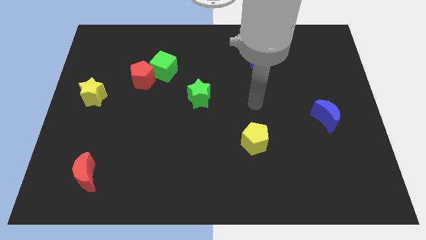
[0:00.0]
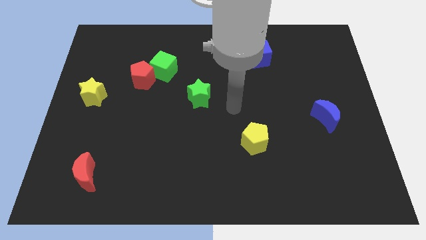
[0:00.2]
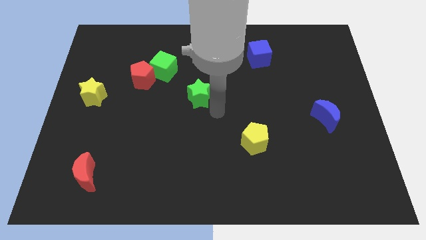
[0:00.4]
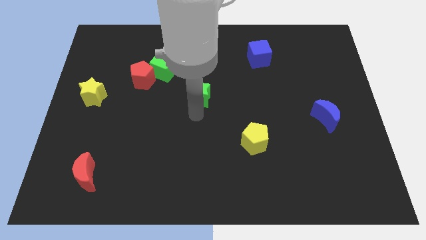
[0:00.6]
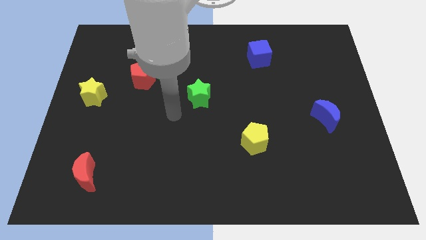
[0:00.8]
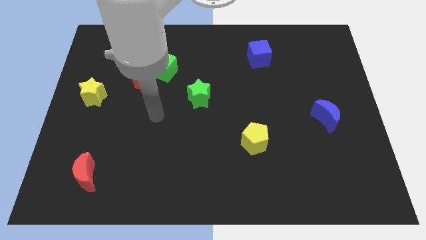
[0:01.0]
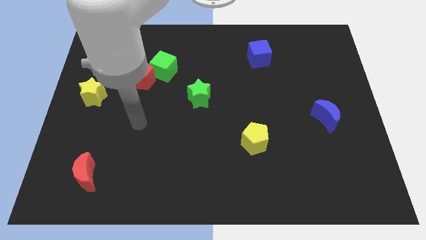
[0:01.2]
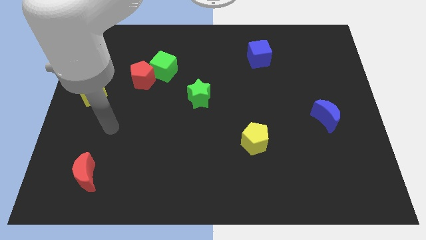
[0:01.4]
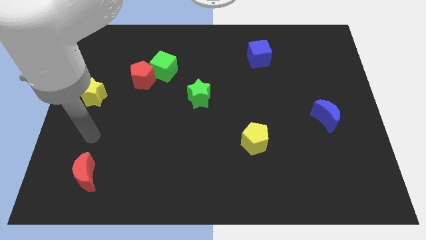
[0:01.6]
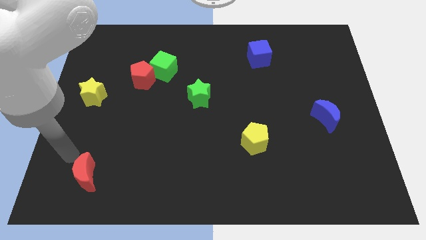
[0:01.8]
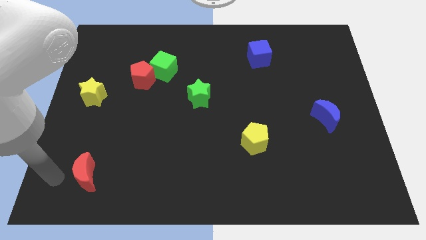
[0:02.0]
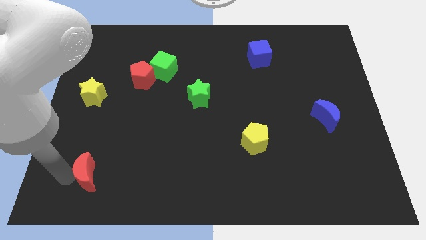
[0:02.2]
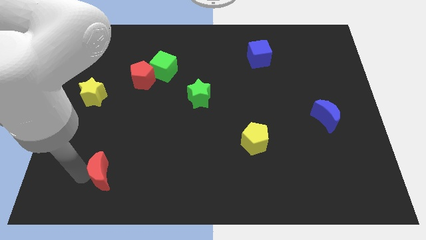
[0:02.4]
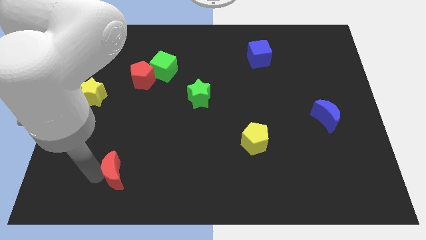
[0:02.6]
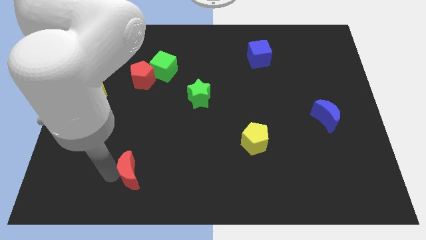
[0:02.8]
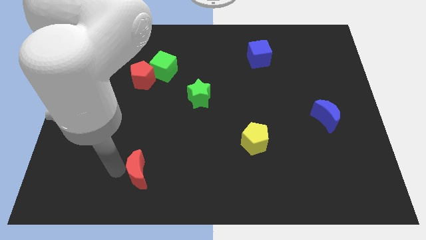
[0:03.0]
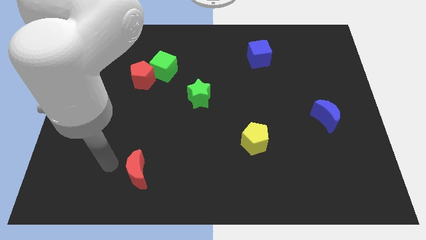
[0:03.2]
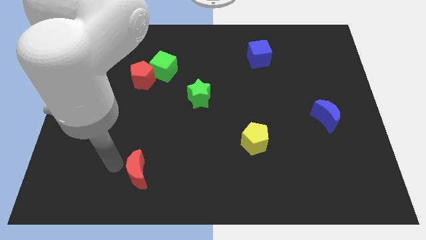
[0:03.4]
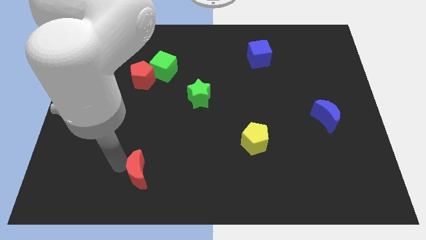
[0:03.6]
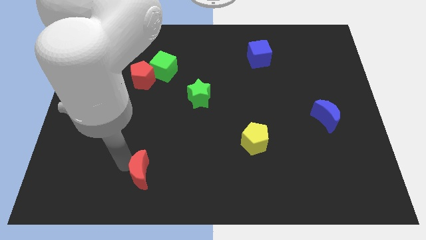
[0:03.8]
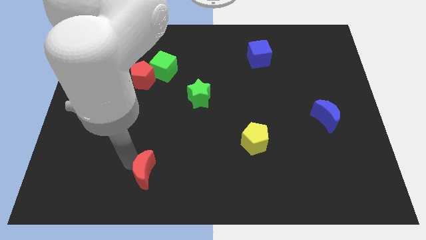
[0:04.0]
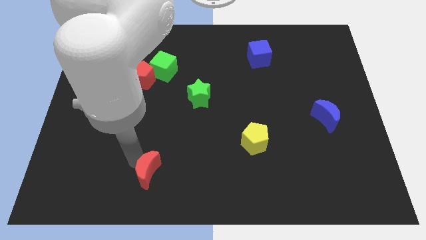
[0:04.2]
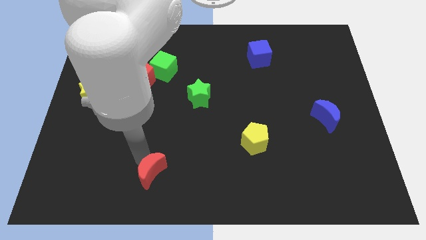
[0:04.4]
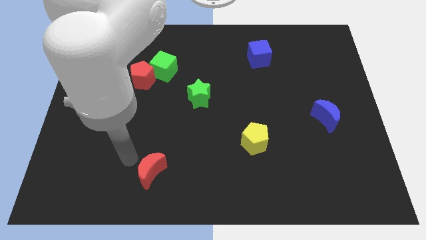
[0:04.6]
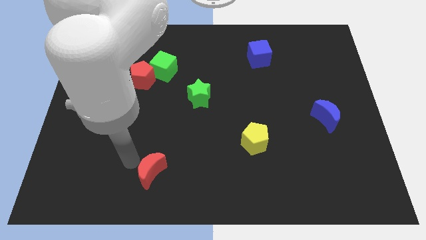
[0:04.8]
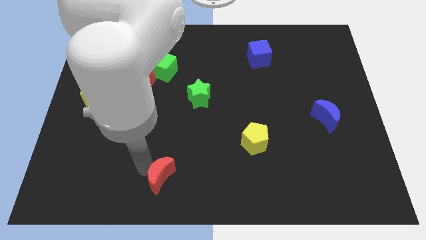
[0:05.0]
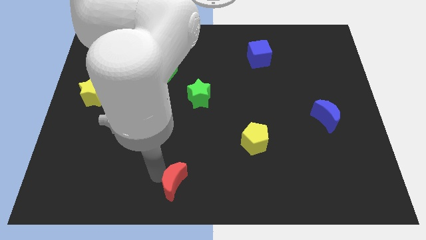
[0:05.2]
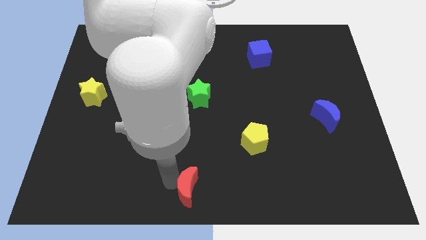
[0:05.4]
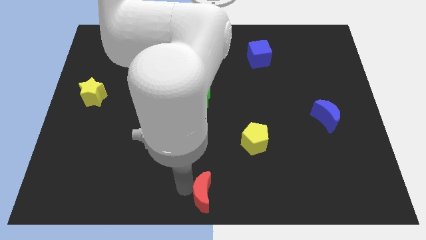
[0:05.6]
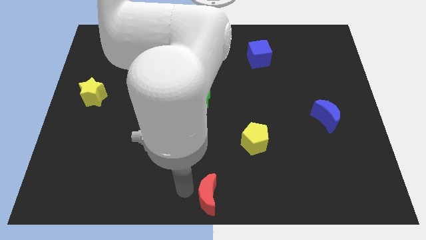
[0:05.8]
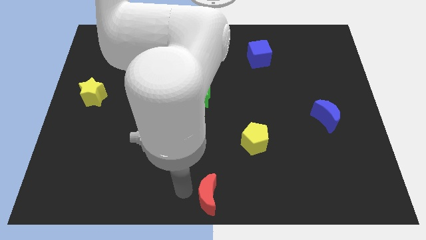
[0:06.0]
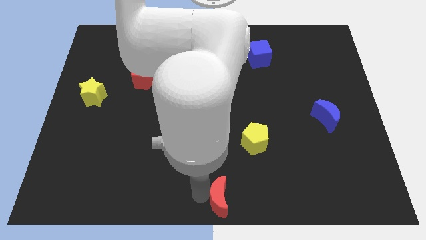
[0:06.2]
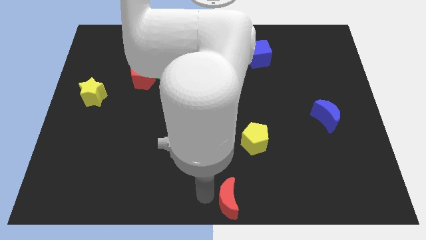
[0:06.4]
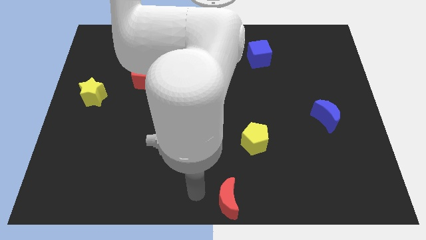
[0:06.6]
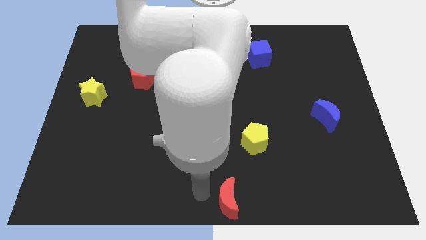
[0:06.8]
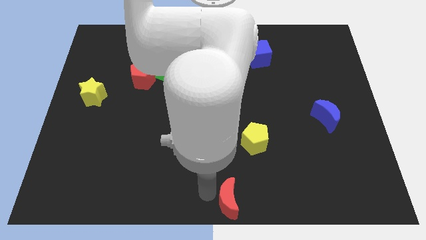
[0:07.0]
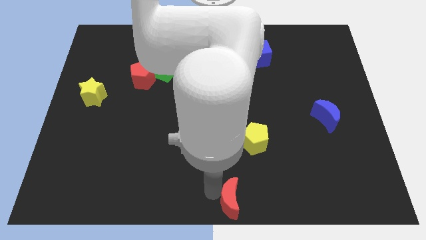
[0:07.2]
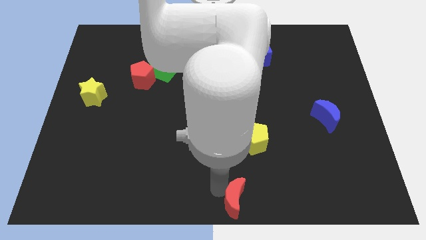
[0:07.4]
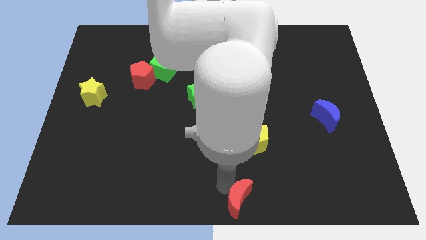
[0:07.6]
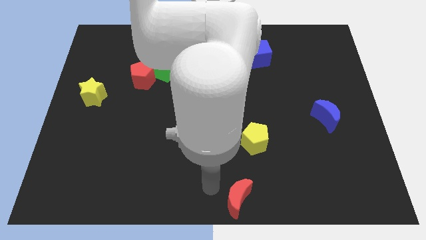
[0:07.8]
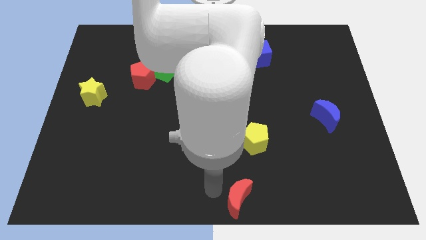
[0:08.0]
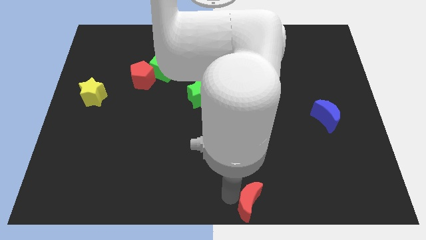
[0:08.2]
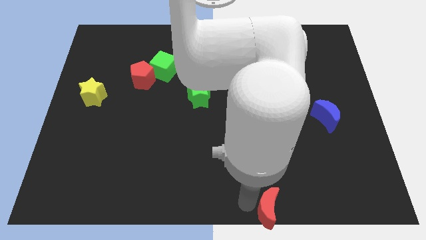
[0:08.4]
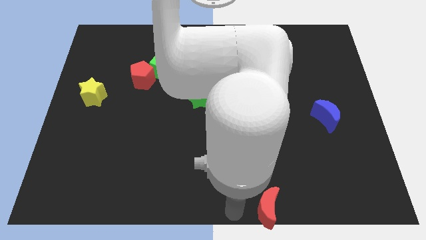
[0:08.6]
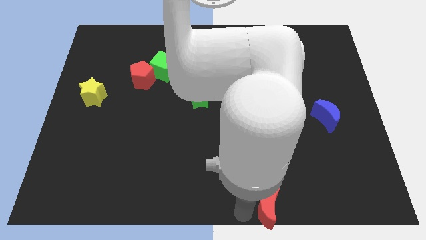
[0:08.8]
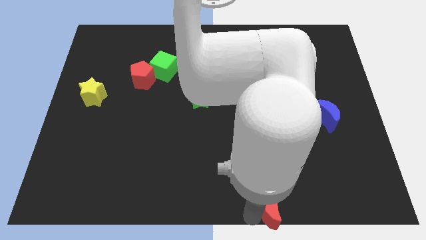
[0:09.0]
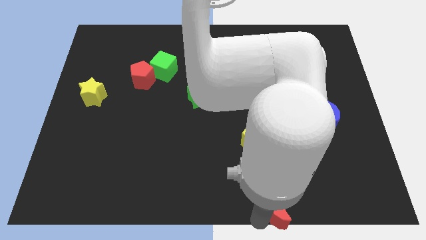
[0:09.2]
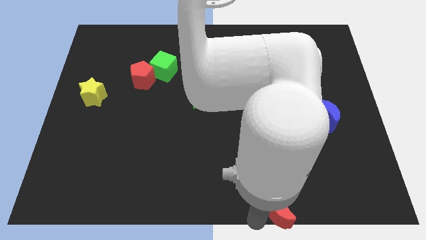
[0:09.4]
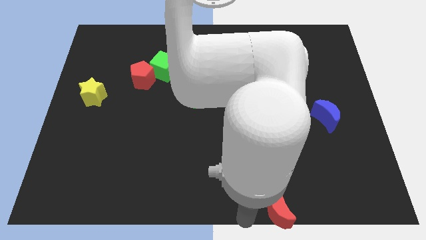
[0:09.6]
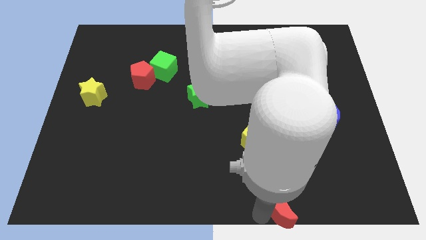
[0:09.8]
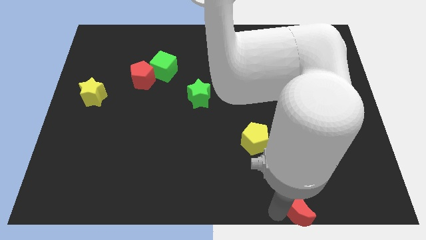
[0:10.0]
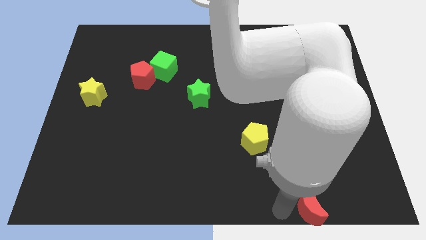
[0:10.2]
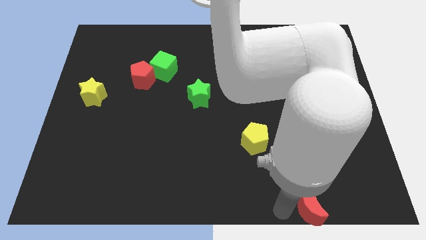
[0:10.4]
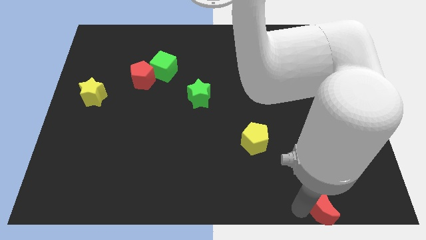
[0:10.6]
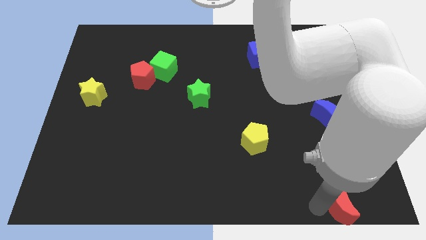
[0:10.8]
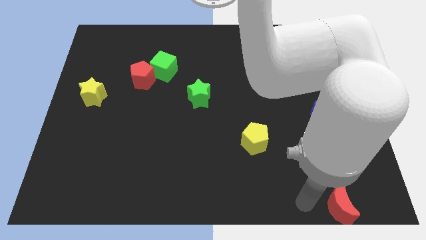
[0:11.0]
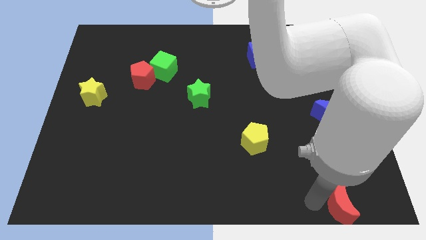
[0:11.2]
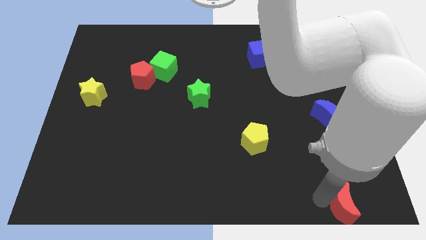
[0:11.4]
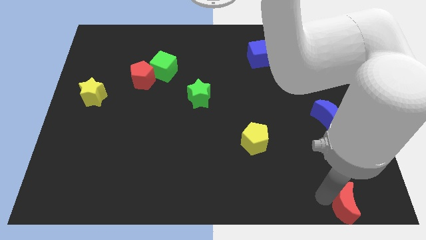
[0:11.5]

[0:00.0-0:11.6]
move the red moon to the bottom right corner

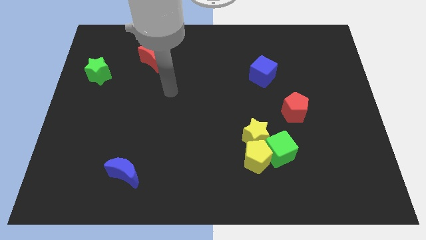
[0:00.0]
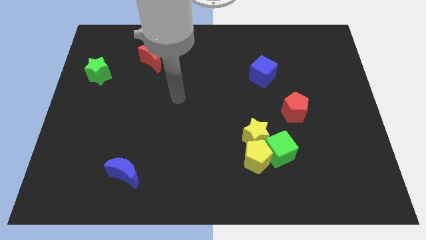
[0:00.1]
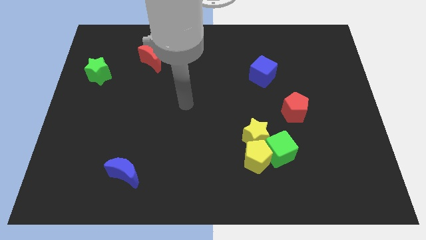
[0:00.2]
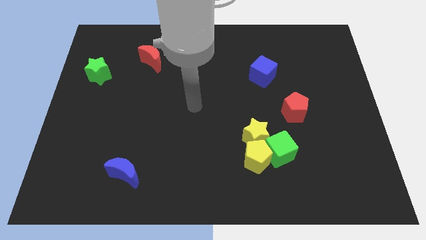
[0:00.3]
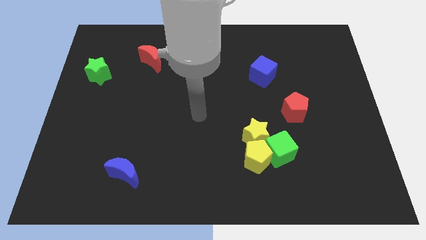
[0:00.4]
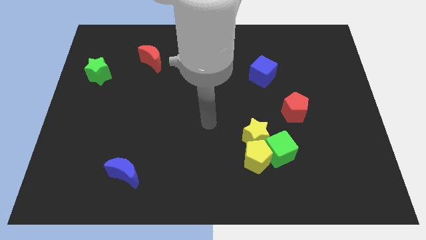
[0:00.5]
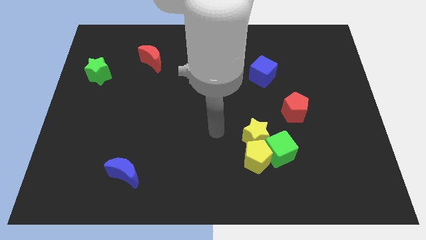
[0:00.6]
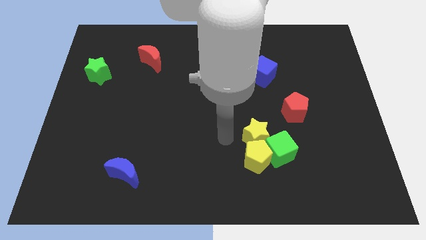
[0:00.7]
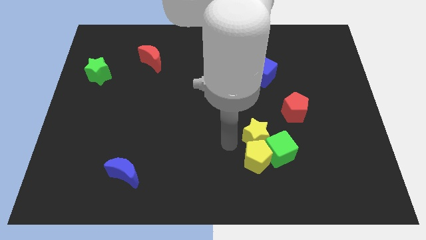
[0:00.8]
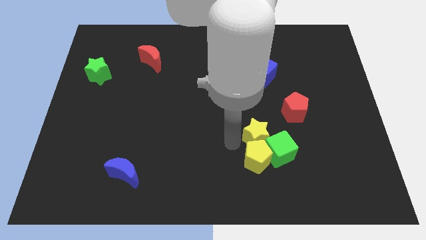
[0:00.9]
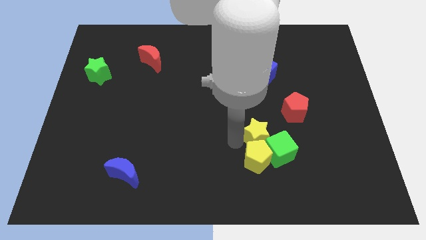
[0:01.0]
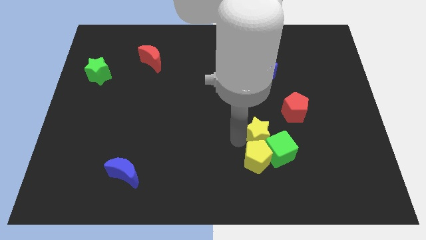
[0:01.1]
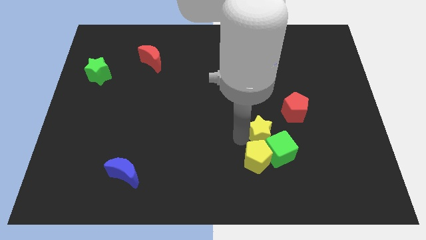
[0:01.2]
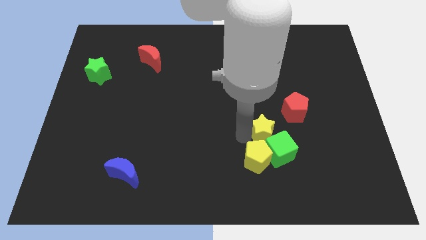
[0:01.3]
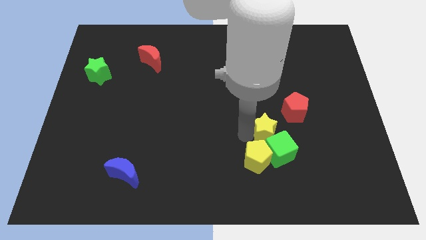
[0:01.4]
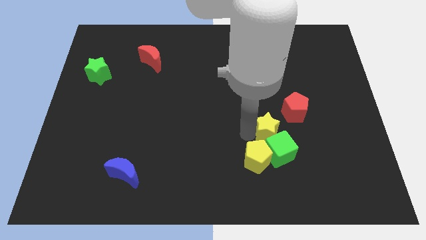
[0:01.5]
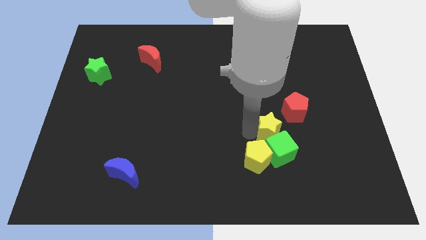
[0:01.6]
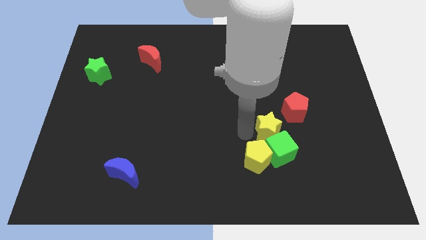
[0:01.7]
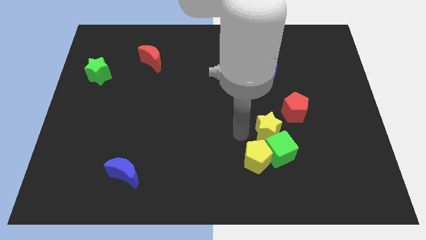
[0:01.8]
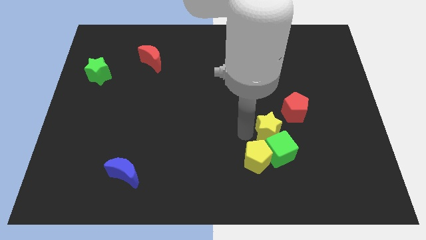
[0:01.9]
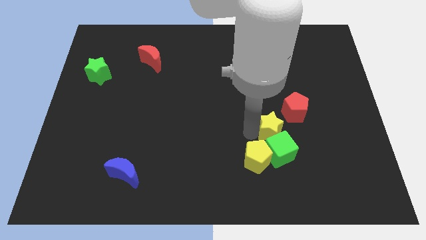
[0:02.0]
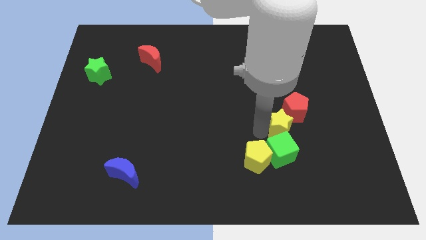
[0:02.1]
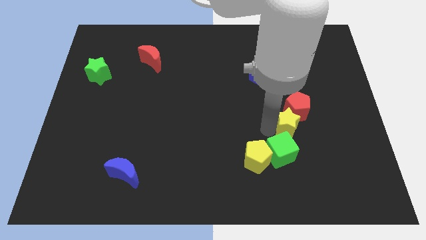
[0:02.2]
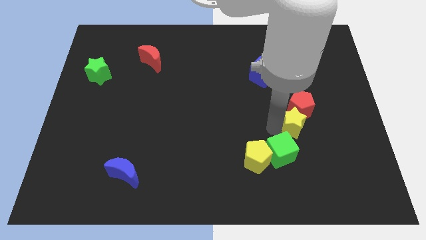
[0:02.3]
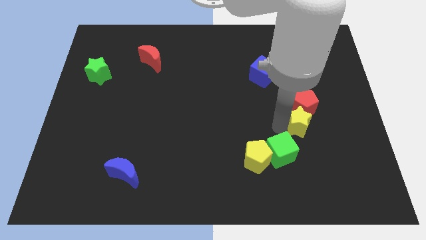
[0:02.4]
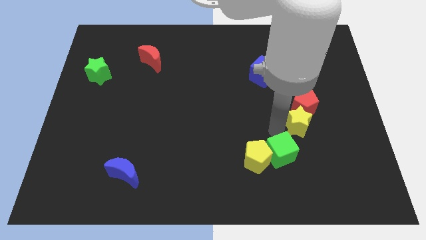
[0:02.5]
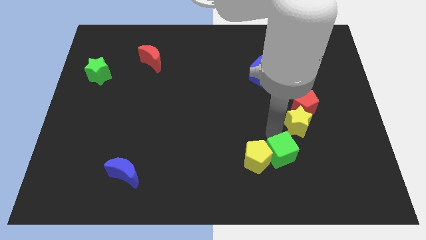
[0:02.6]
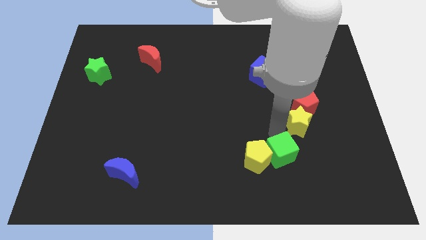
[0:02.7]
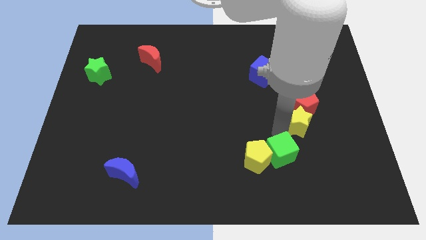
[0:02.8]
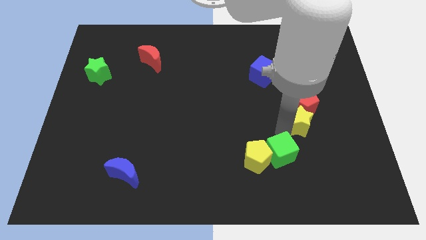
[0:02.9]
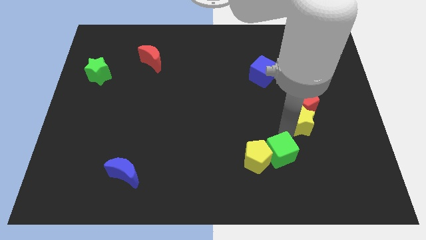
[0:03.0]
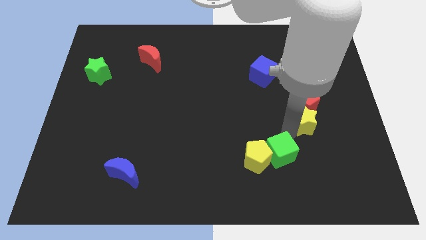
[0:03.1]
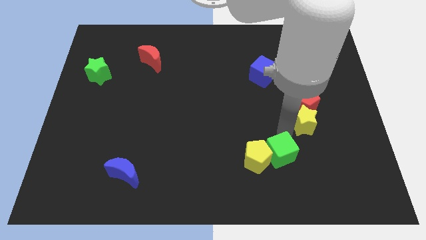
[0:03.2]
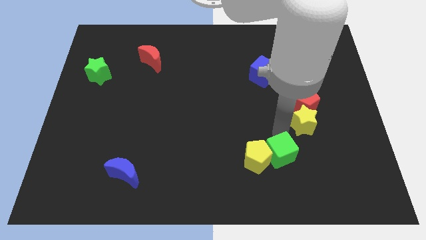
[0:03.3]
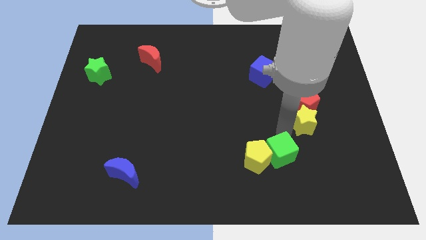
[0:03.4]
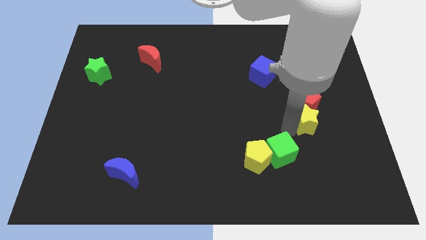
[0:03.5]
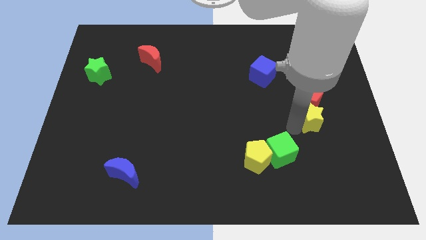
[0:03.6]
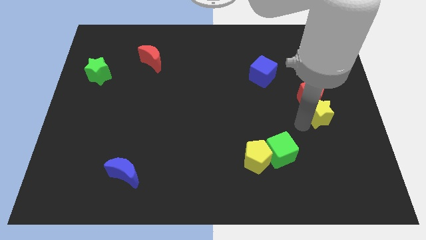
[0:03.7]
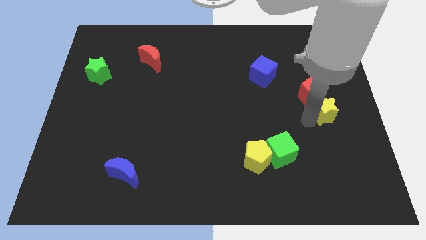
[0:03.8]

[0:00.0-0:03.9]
push the yellow star to the right side
